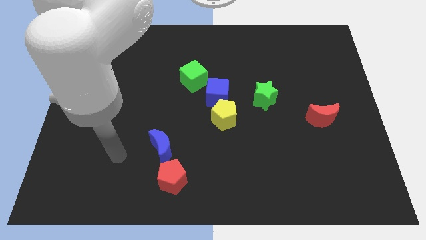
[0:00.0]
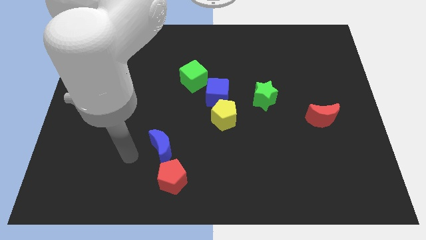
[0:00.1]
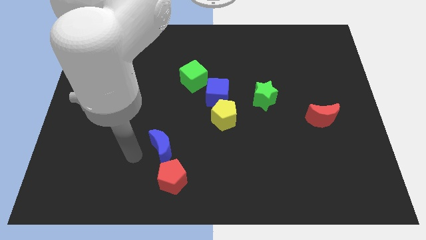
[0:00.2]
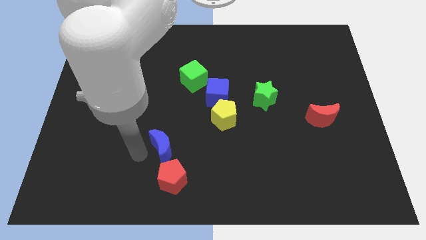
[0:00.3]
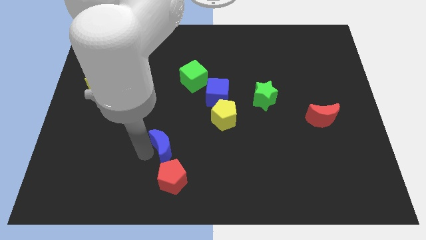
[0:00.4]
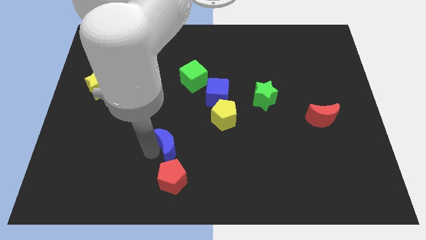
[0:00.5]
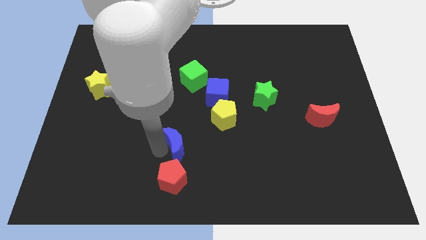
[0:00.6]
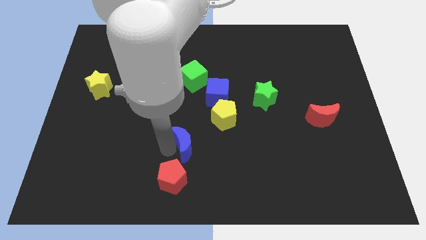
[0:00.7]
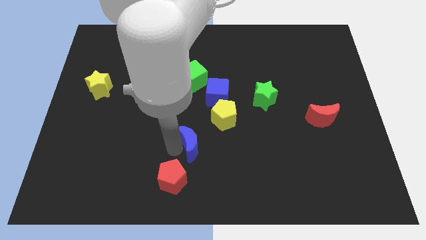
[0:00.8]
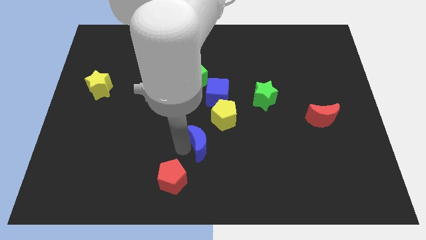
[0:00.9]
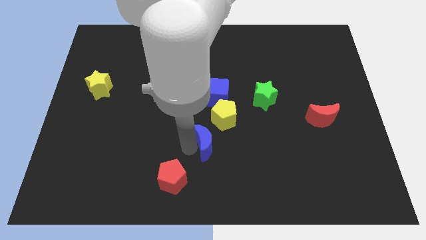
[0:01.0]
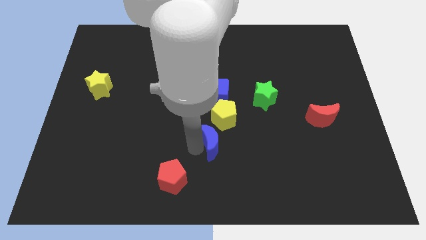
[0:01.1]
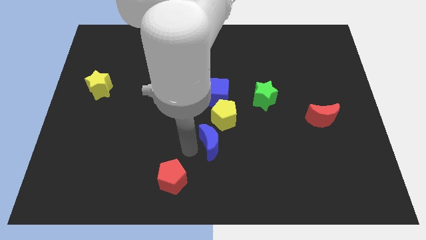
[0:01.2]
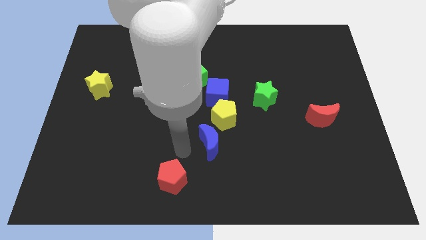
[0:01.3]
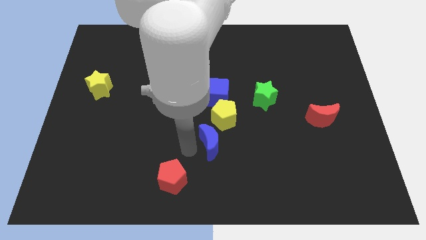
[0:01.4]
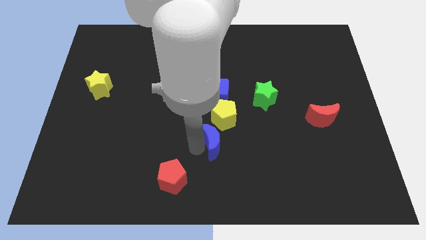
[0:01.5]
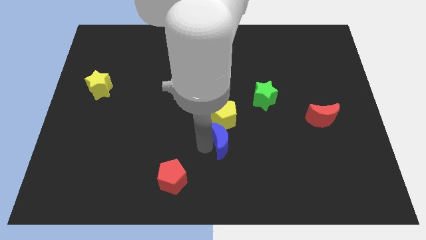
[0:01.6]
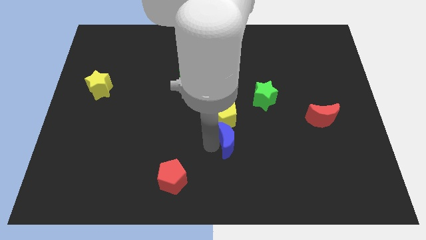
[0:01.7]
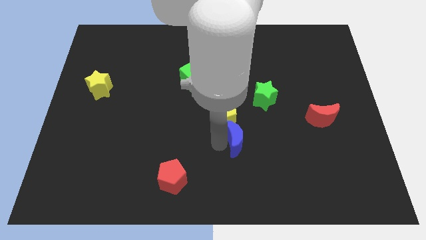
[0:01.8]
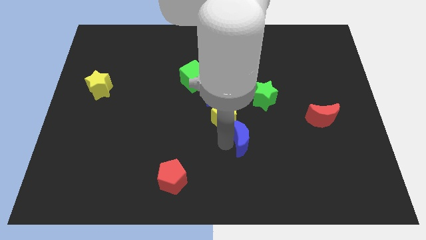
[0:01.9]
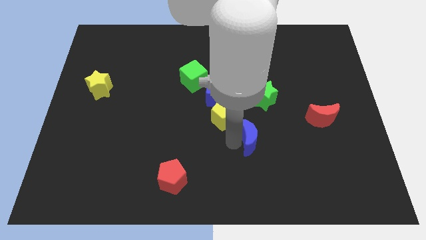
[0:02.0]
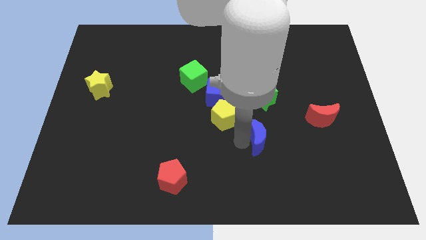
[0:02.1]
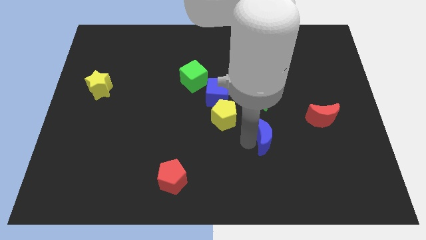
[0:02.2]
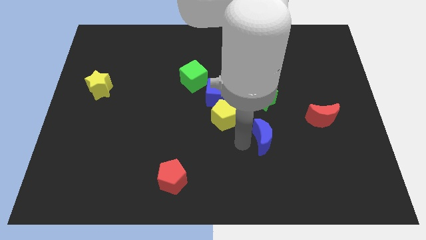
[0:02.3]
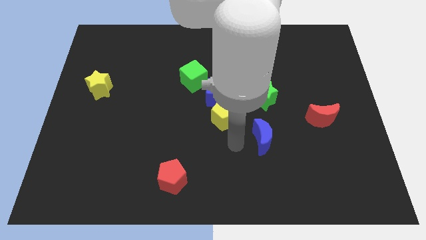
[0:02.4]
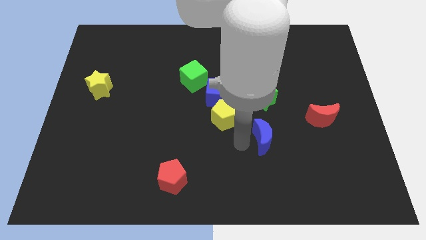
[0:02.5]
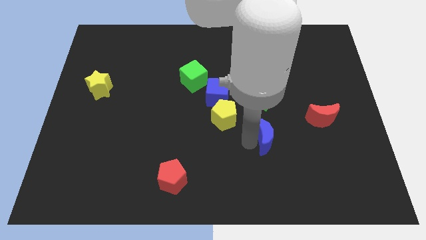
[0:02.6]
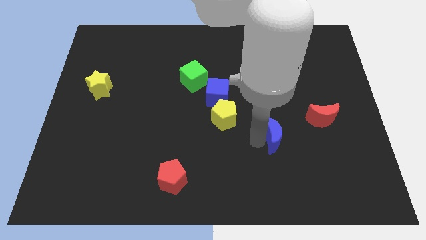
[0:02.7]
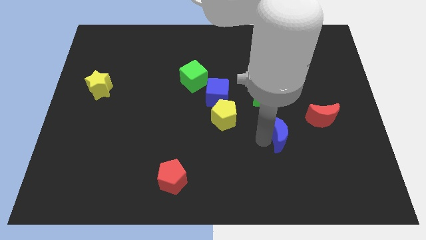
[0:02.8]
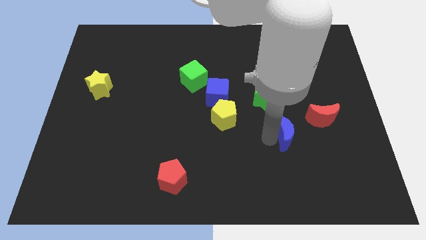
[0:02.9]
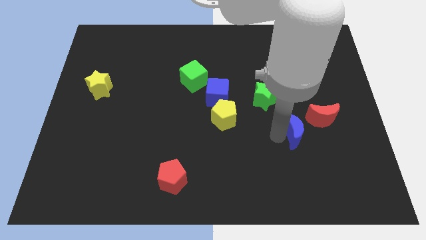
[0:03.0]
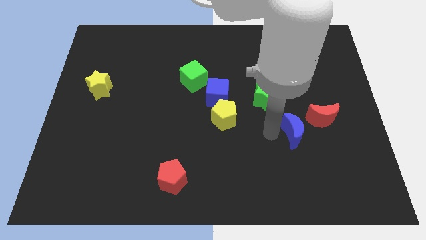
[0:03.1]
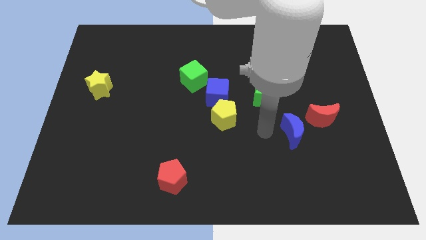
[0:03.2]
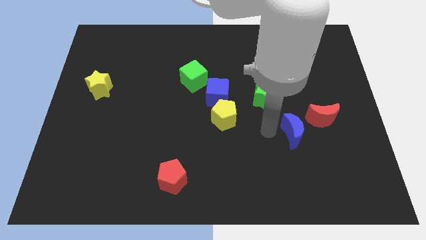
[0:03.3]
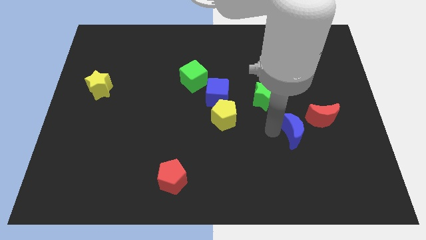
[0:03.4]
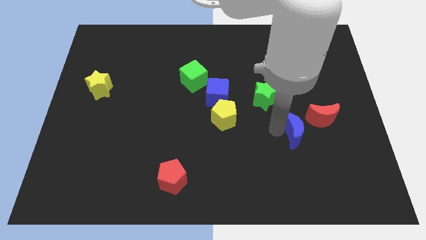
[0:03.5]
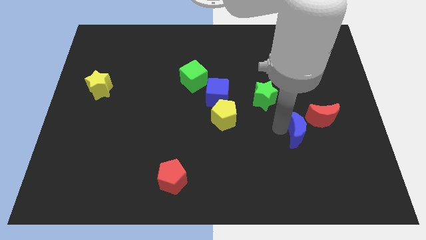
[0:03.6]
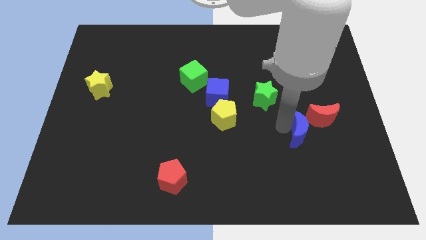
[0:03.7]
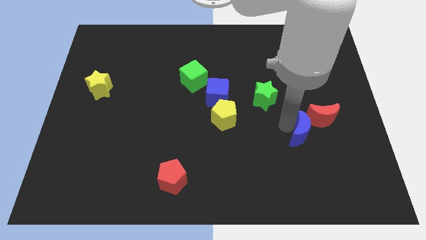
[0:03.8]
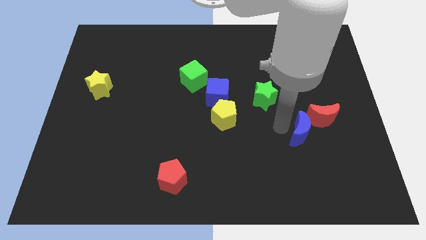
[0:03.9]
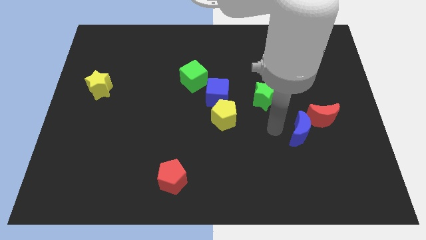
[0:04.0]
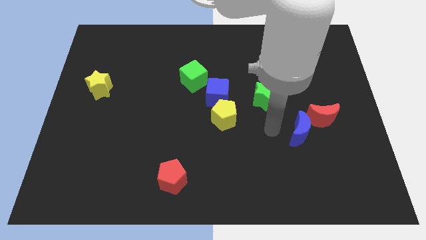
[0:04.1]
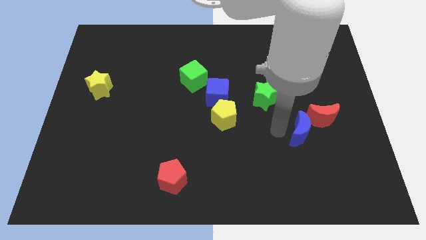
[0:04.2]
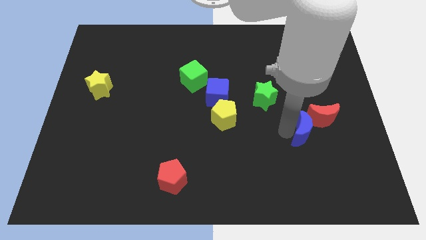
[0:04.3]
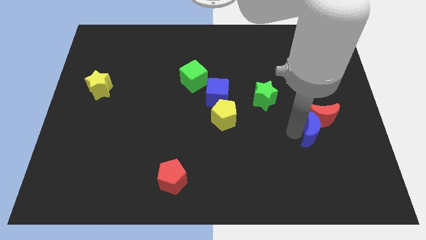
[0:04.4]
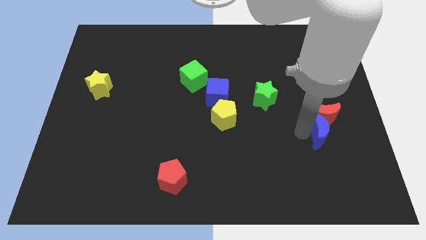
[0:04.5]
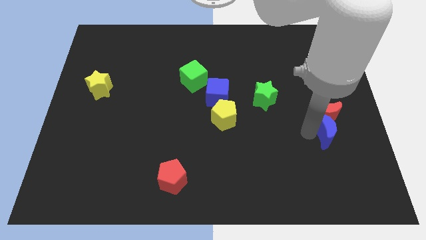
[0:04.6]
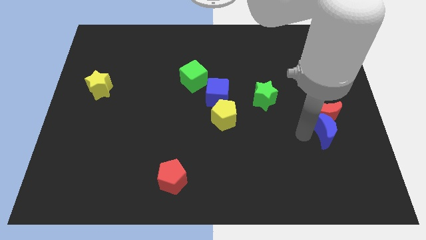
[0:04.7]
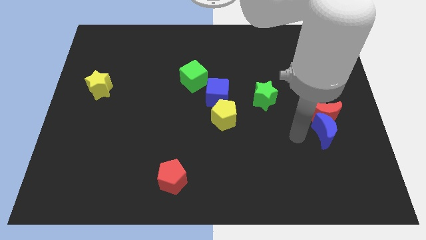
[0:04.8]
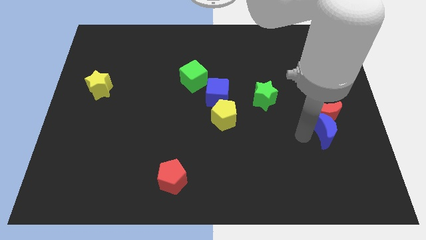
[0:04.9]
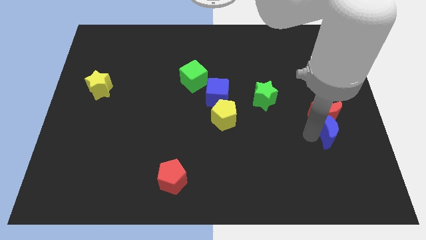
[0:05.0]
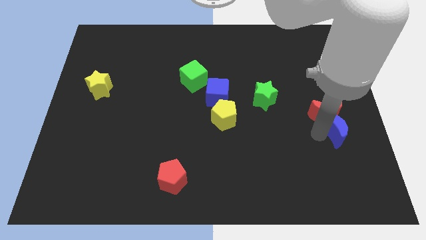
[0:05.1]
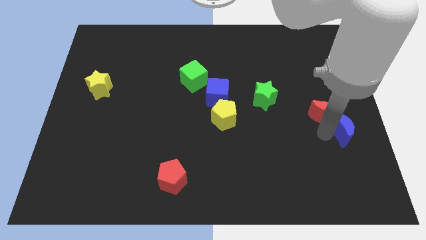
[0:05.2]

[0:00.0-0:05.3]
push the blue moon to the right side

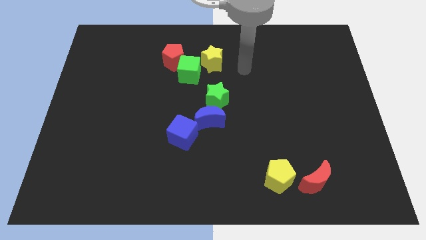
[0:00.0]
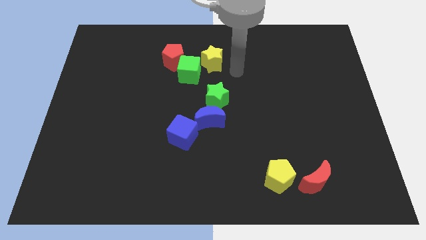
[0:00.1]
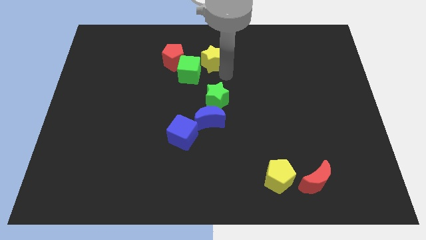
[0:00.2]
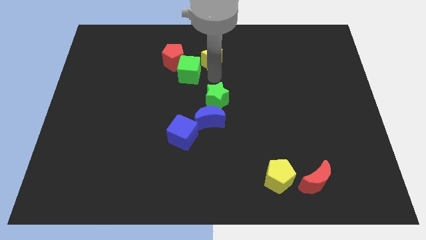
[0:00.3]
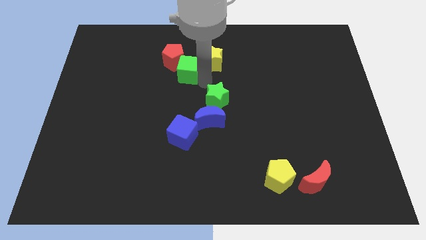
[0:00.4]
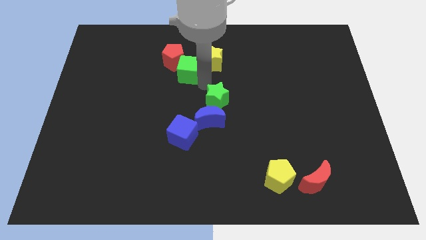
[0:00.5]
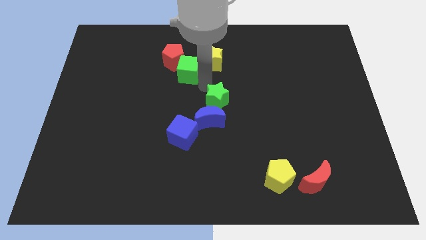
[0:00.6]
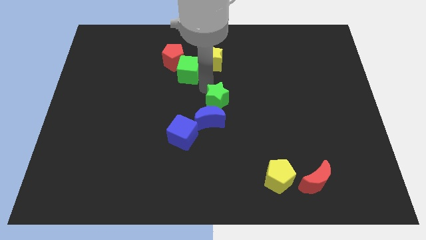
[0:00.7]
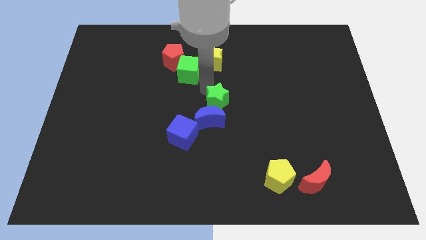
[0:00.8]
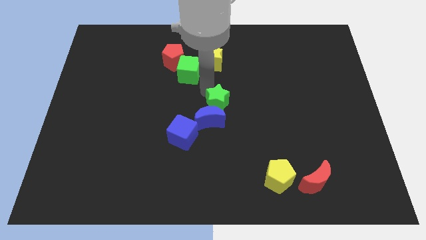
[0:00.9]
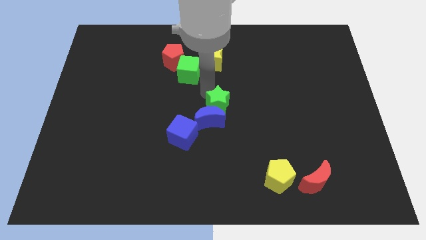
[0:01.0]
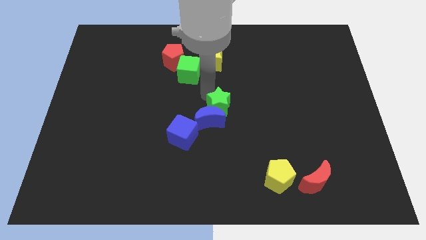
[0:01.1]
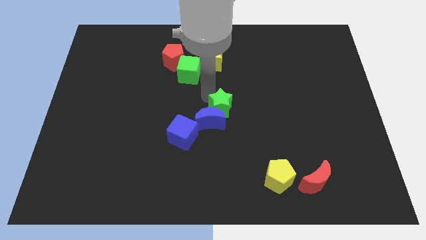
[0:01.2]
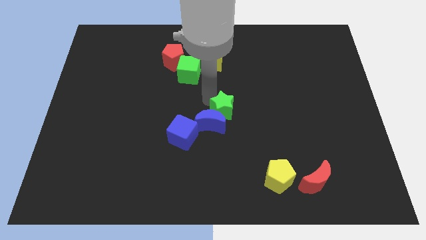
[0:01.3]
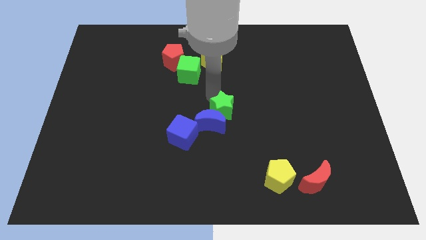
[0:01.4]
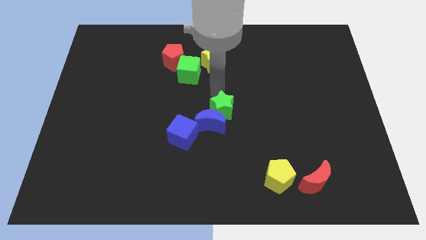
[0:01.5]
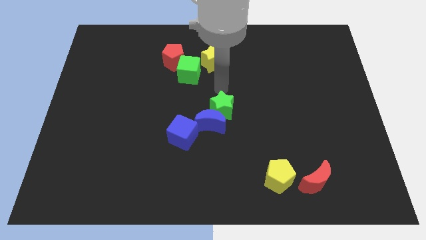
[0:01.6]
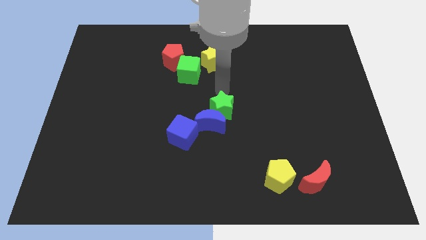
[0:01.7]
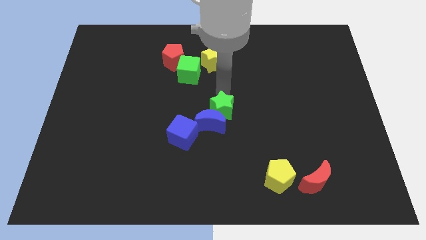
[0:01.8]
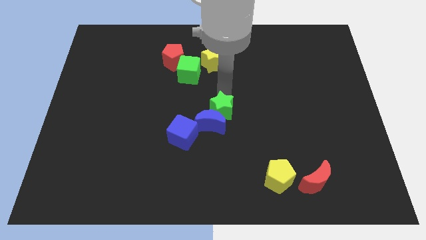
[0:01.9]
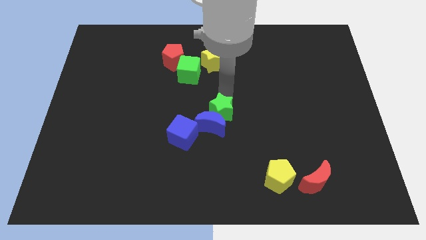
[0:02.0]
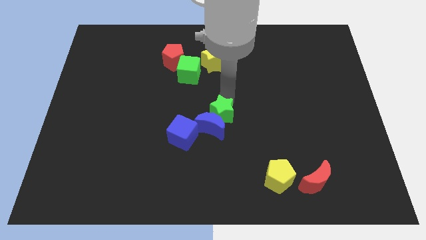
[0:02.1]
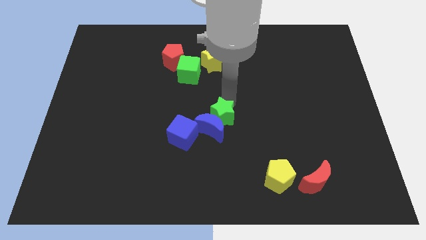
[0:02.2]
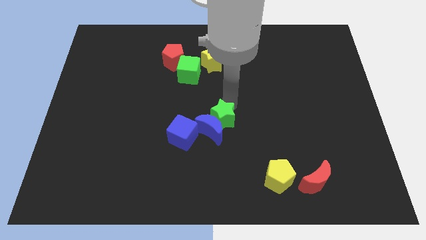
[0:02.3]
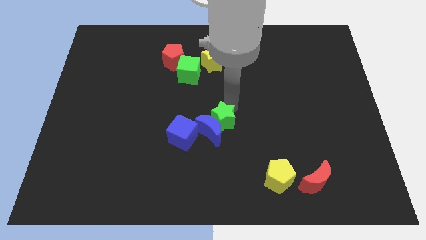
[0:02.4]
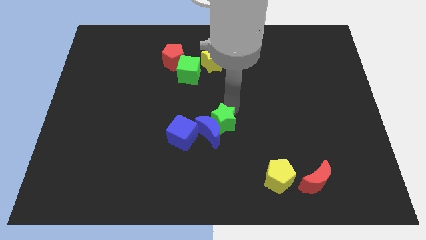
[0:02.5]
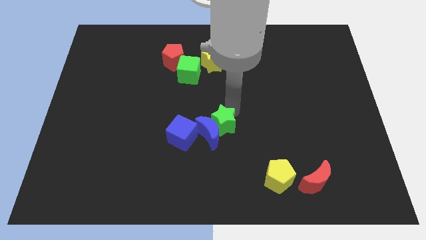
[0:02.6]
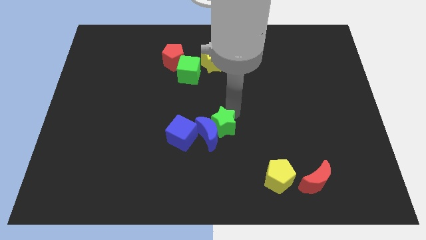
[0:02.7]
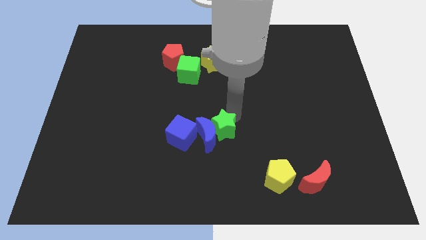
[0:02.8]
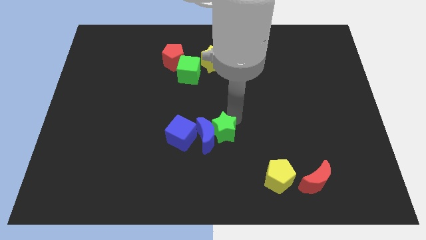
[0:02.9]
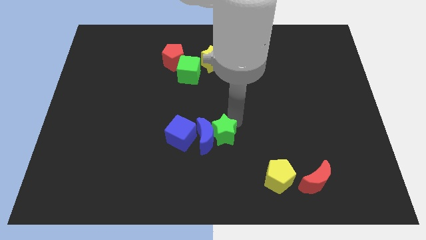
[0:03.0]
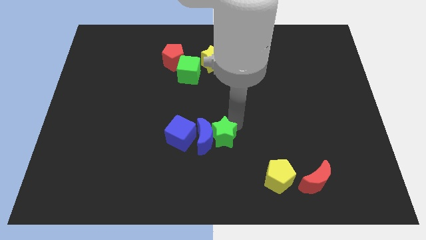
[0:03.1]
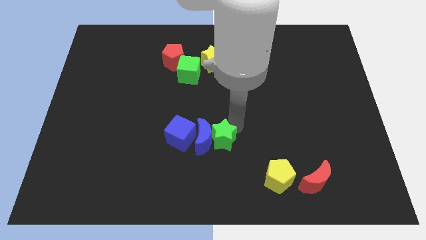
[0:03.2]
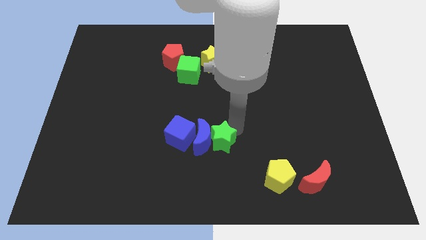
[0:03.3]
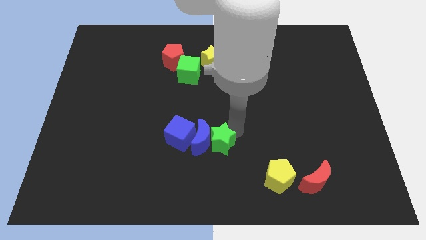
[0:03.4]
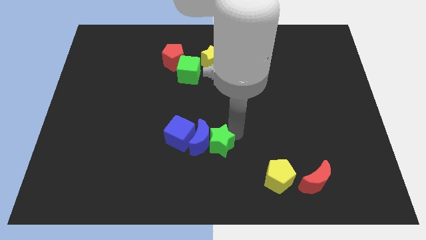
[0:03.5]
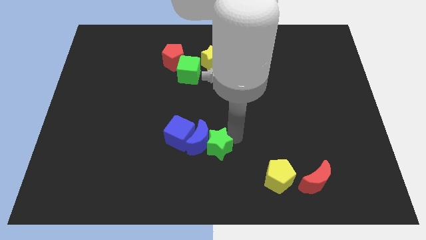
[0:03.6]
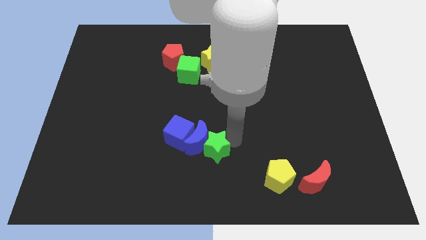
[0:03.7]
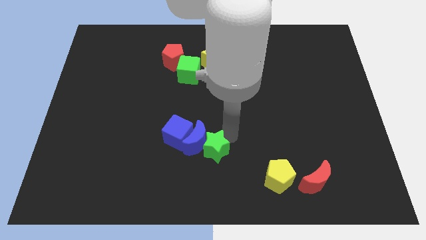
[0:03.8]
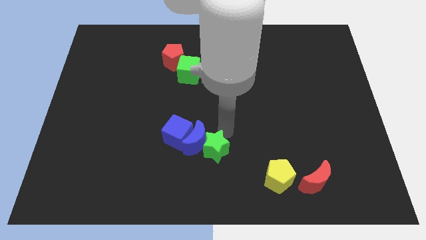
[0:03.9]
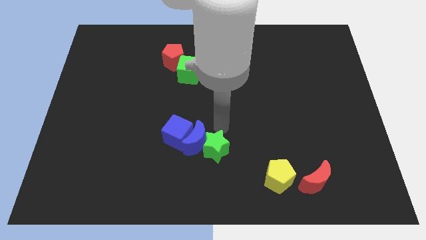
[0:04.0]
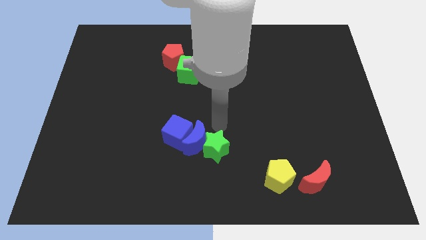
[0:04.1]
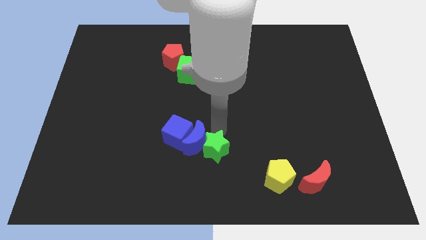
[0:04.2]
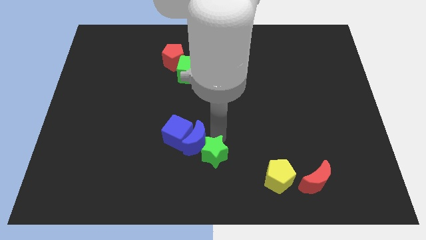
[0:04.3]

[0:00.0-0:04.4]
push the green star to the bottom
